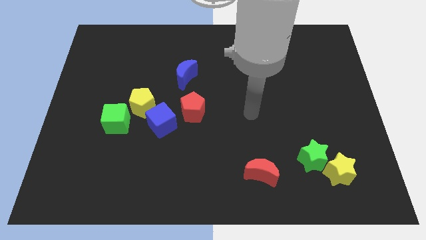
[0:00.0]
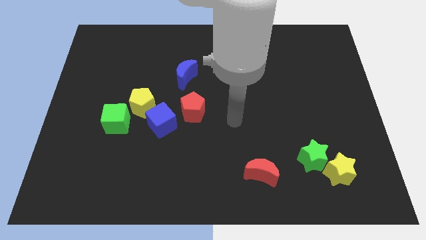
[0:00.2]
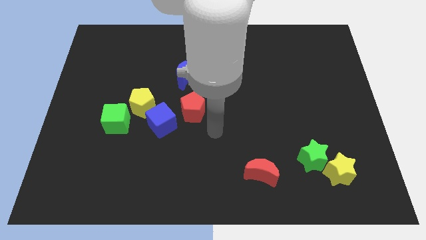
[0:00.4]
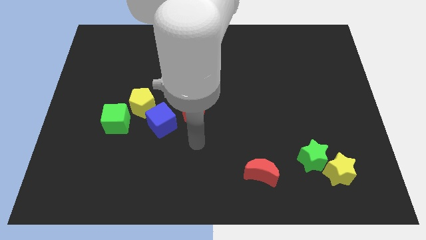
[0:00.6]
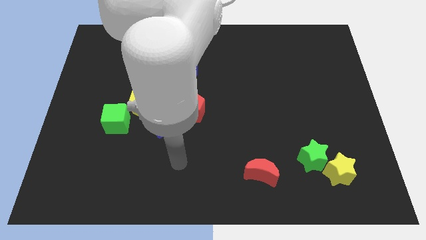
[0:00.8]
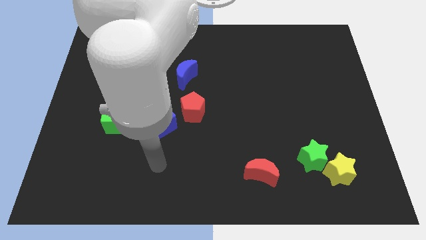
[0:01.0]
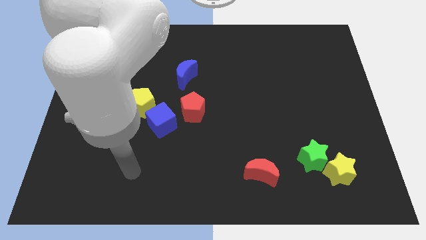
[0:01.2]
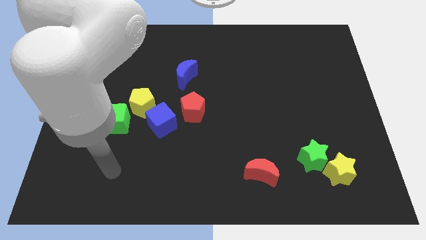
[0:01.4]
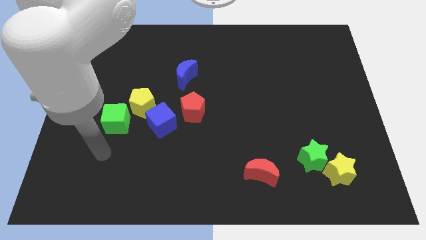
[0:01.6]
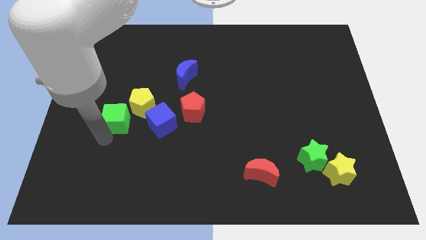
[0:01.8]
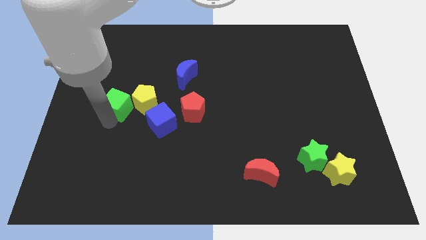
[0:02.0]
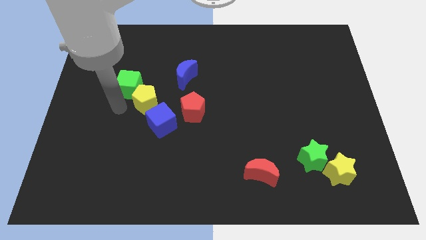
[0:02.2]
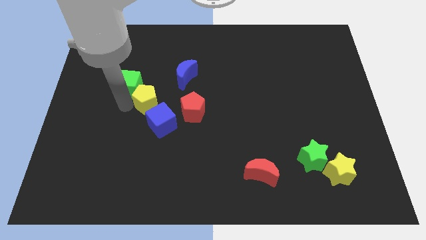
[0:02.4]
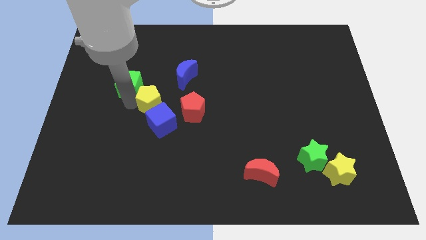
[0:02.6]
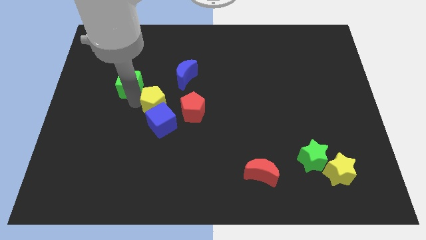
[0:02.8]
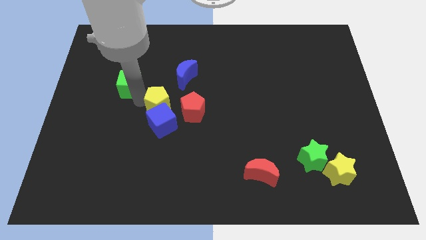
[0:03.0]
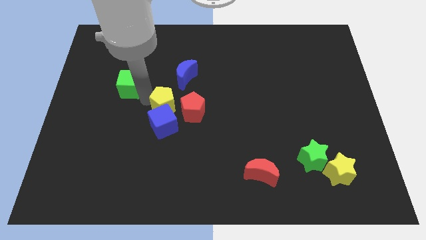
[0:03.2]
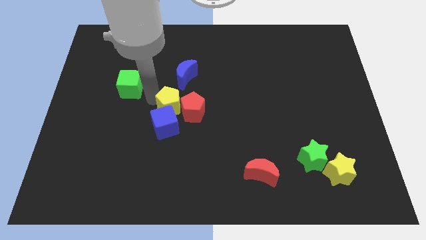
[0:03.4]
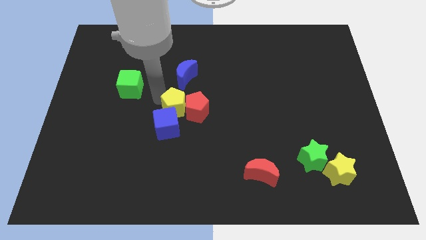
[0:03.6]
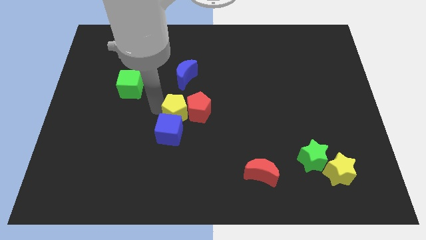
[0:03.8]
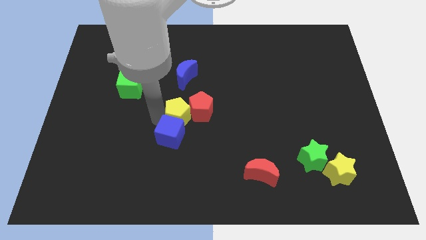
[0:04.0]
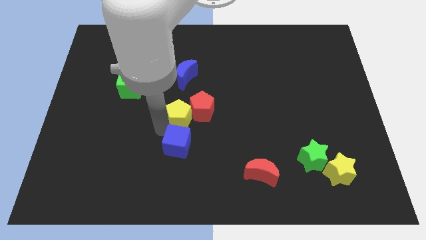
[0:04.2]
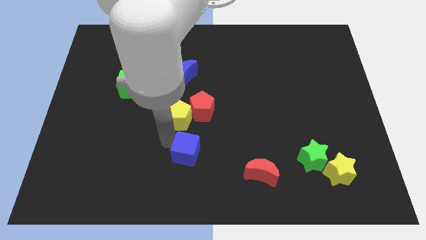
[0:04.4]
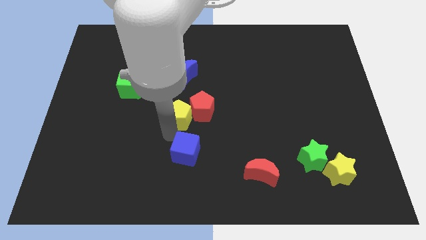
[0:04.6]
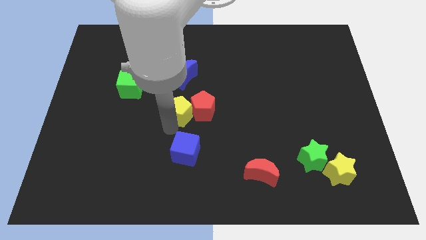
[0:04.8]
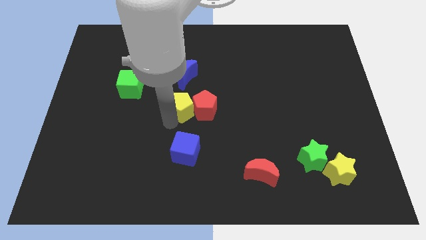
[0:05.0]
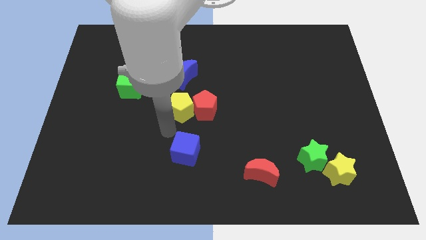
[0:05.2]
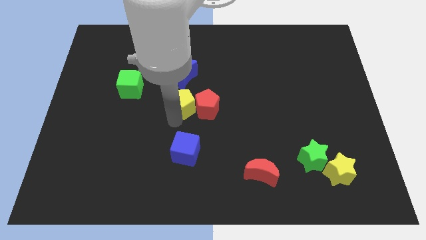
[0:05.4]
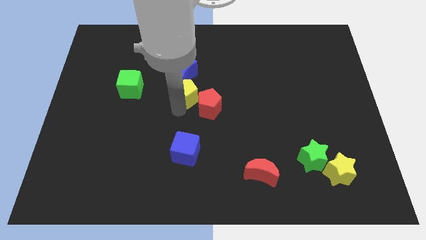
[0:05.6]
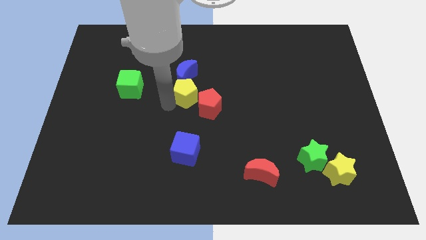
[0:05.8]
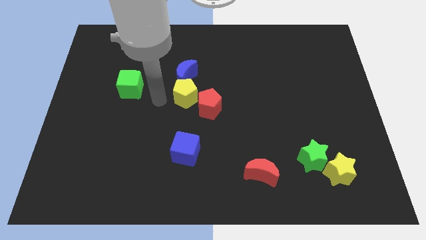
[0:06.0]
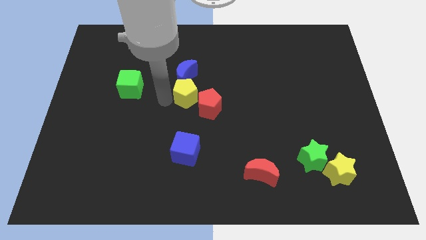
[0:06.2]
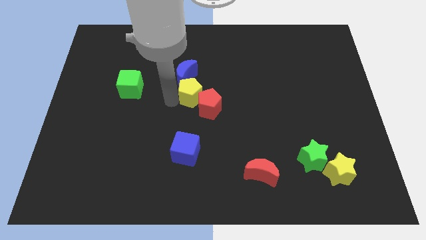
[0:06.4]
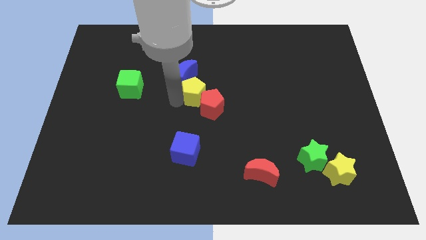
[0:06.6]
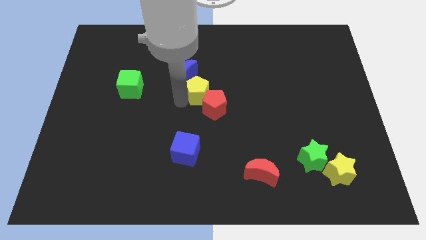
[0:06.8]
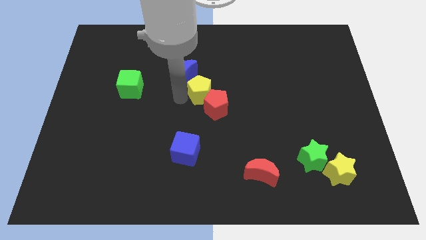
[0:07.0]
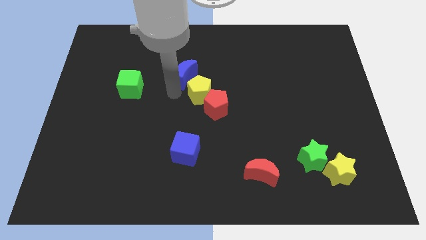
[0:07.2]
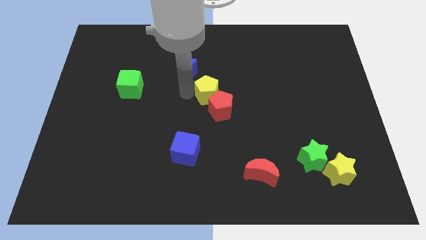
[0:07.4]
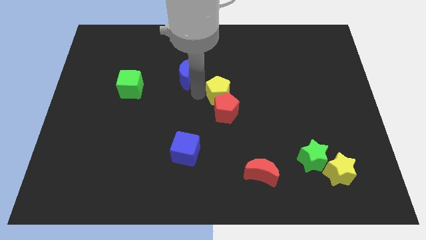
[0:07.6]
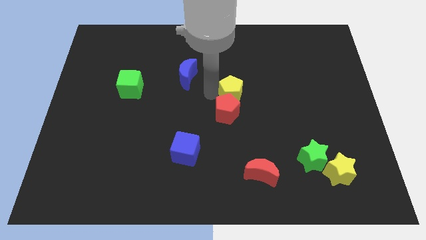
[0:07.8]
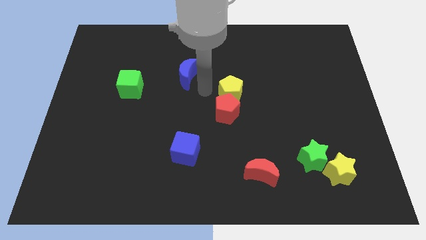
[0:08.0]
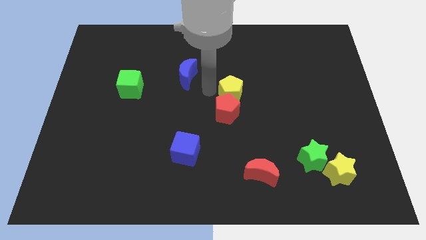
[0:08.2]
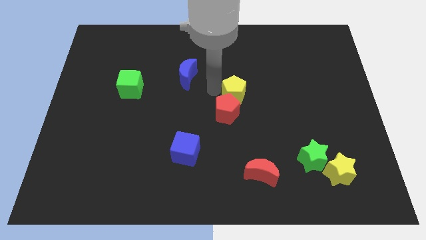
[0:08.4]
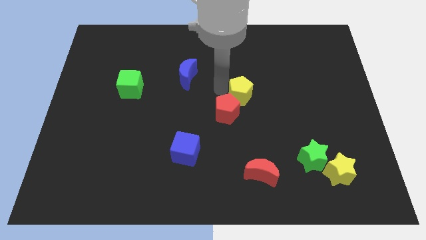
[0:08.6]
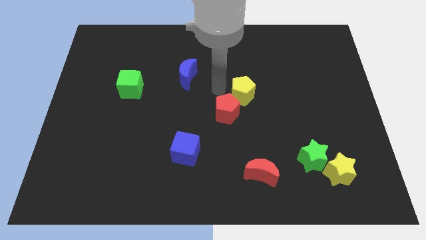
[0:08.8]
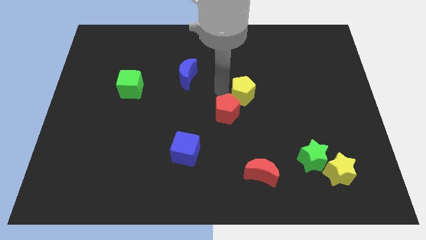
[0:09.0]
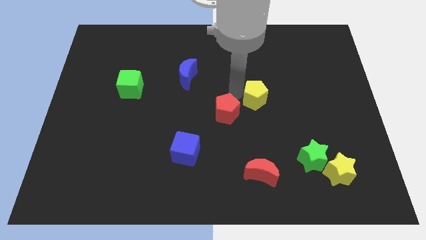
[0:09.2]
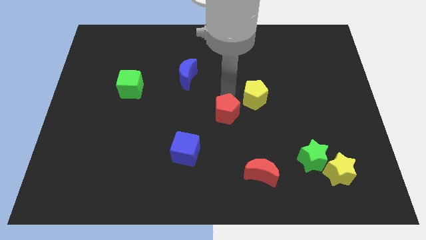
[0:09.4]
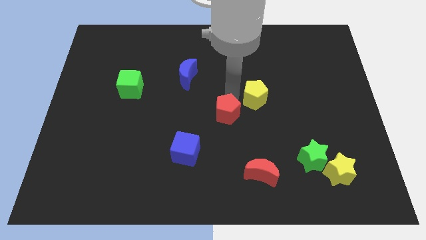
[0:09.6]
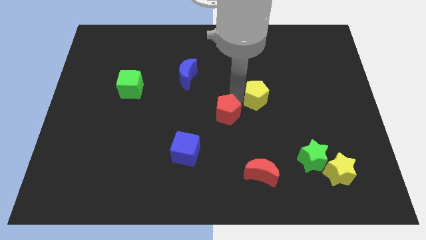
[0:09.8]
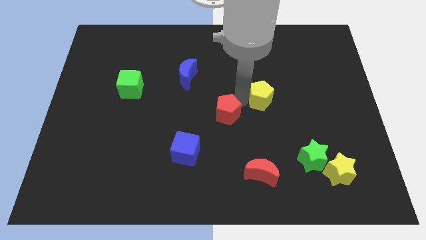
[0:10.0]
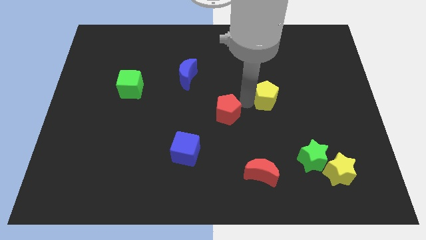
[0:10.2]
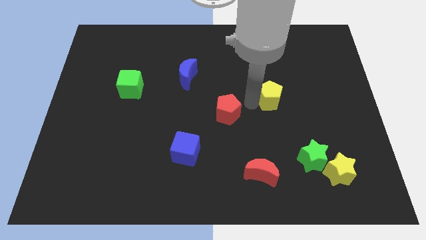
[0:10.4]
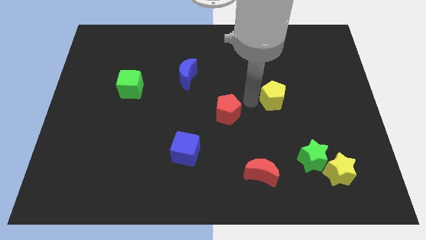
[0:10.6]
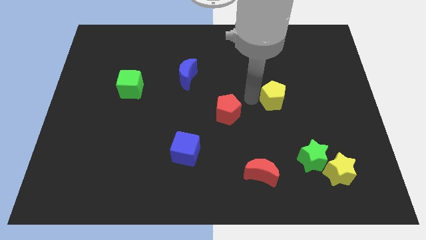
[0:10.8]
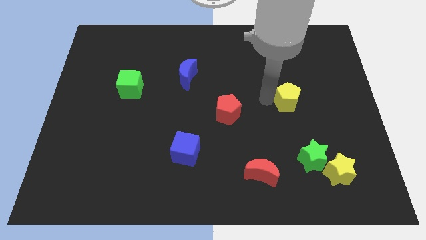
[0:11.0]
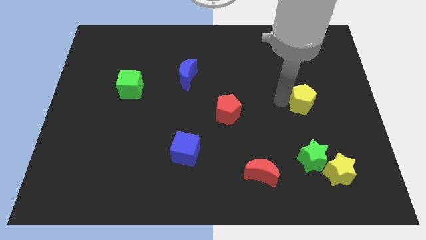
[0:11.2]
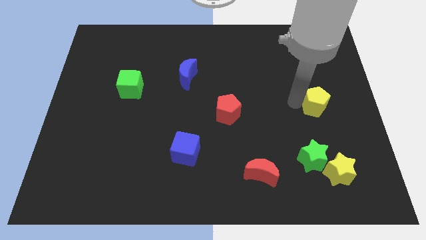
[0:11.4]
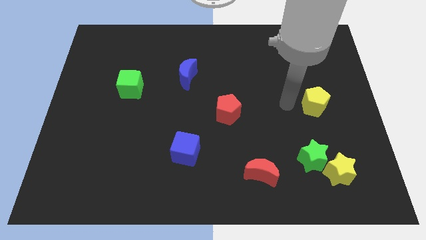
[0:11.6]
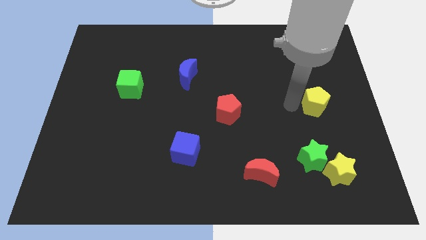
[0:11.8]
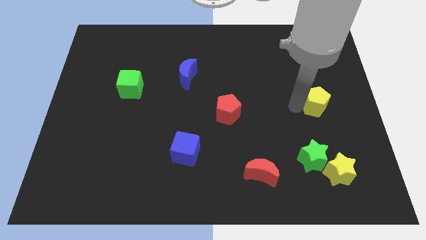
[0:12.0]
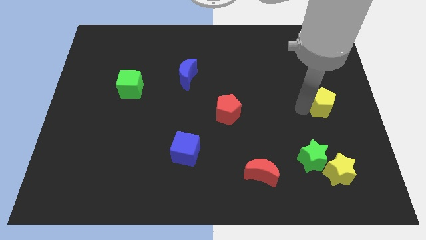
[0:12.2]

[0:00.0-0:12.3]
slide the yellow pentagon to the center right
